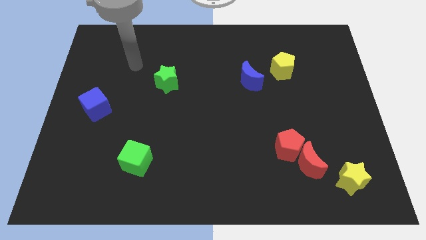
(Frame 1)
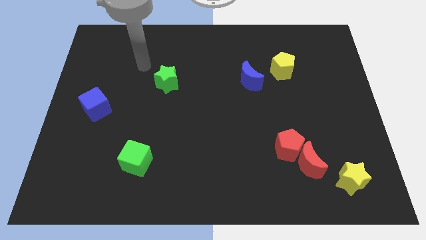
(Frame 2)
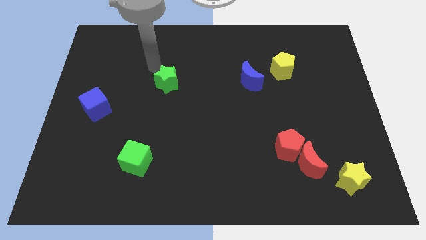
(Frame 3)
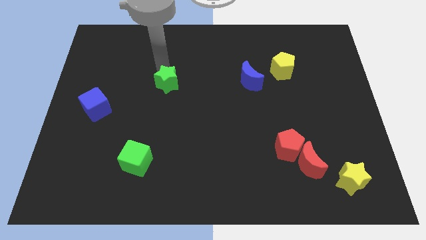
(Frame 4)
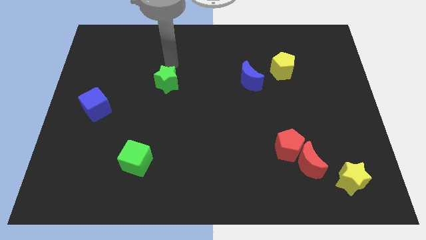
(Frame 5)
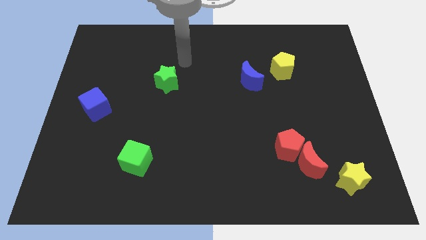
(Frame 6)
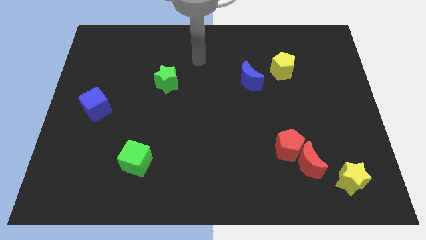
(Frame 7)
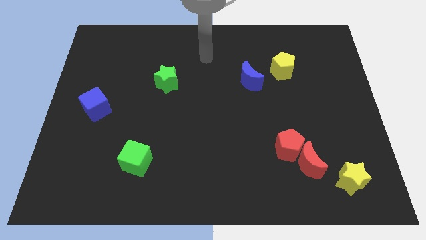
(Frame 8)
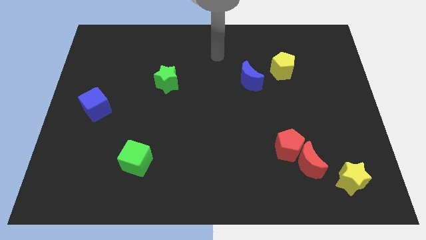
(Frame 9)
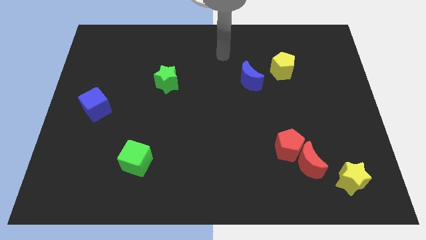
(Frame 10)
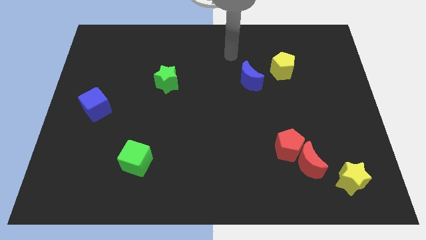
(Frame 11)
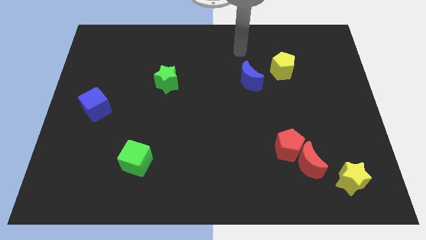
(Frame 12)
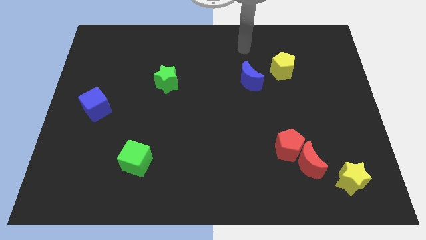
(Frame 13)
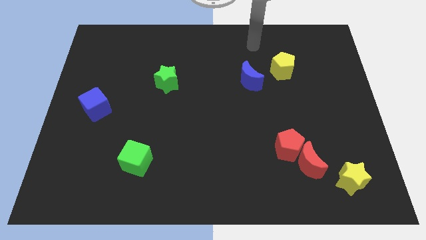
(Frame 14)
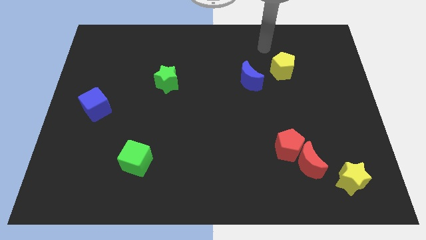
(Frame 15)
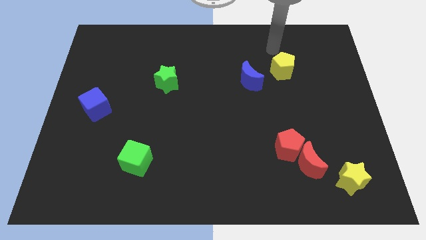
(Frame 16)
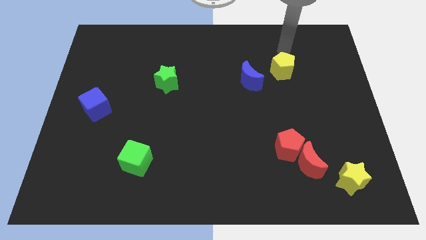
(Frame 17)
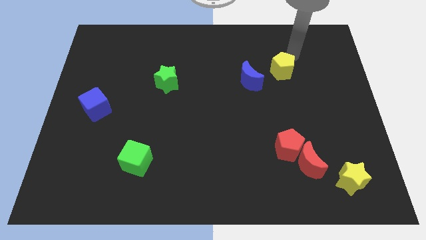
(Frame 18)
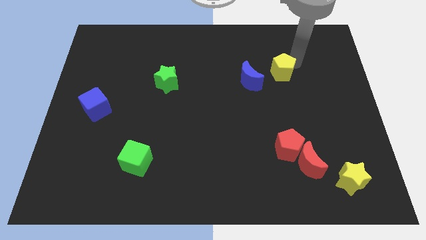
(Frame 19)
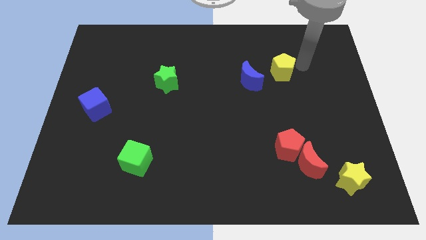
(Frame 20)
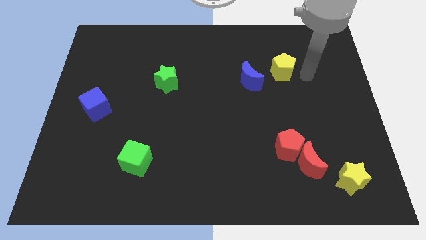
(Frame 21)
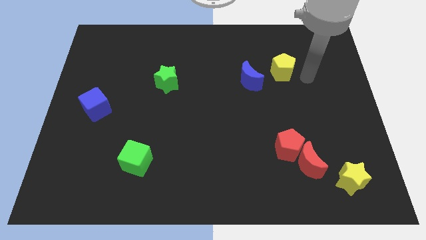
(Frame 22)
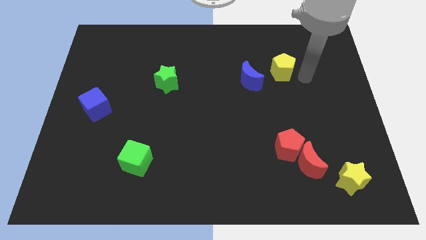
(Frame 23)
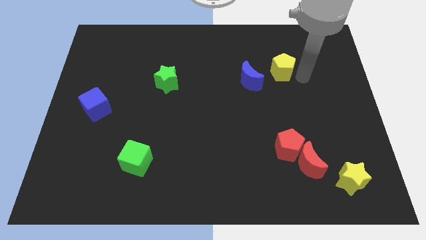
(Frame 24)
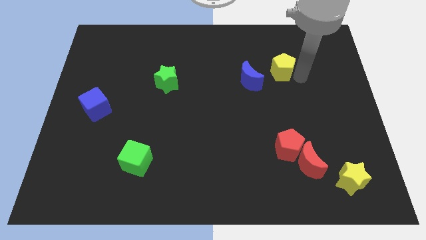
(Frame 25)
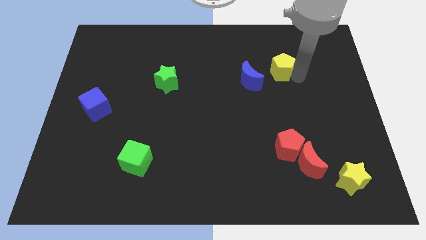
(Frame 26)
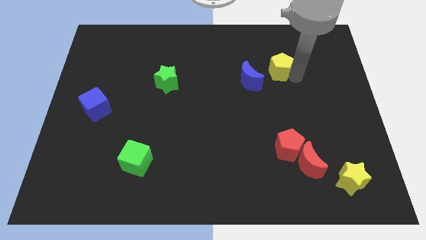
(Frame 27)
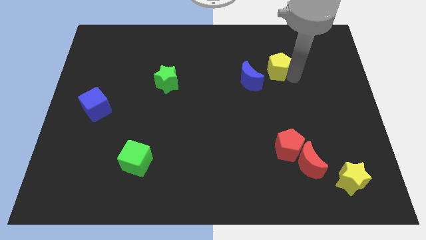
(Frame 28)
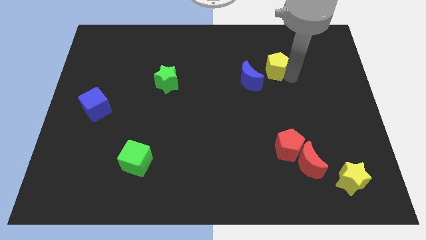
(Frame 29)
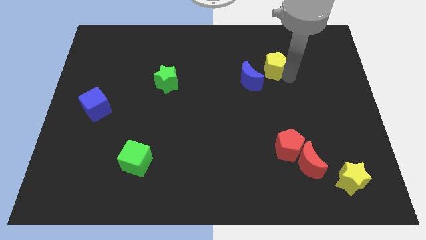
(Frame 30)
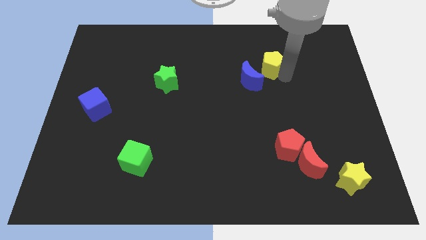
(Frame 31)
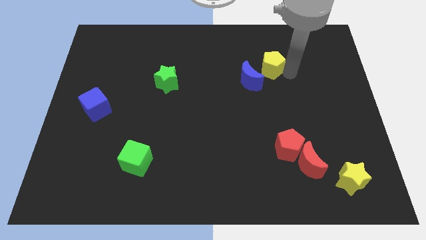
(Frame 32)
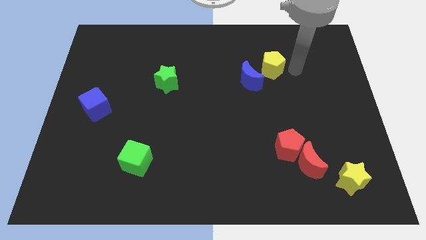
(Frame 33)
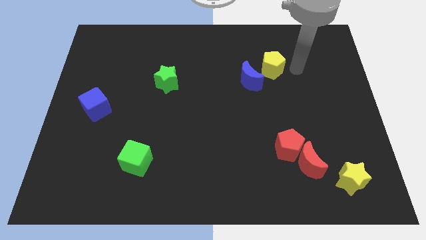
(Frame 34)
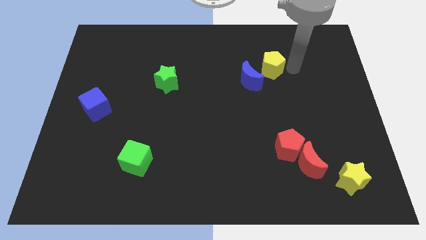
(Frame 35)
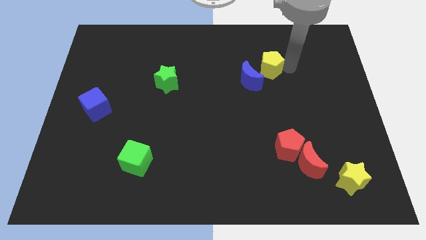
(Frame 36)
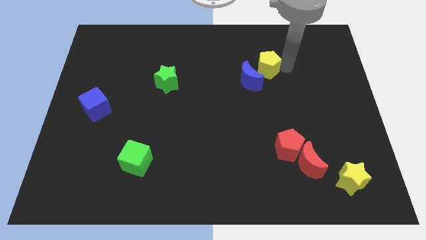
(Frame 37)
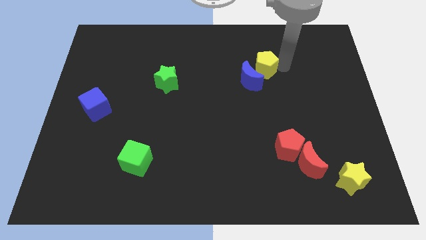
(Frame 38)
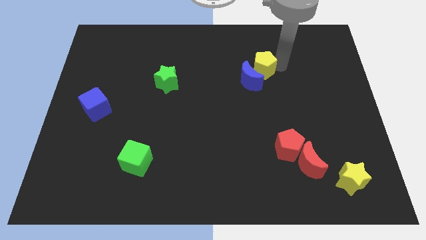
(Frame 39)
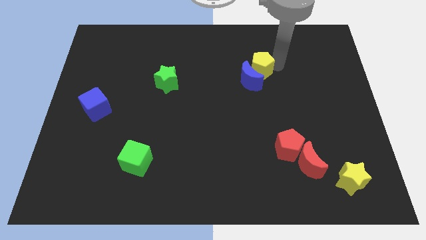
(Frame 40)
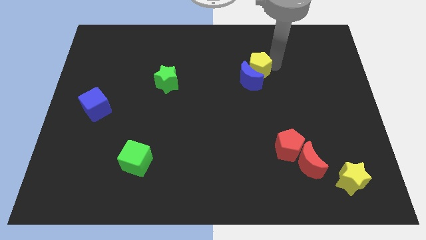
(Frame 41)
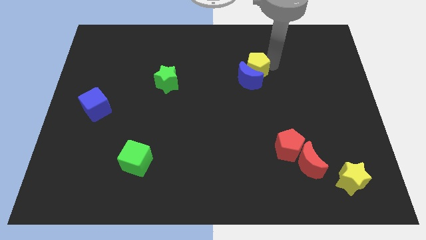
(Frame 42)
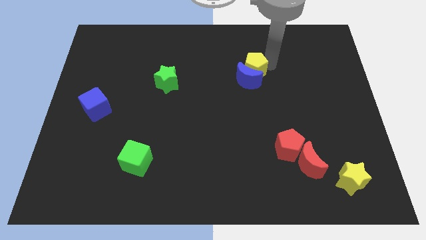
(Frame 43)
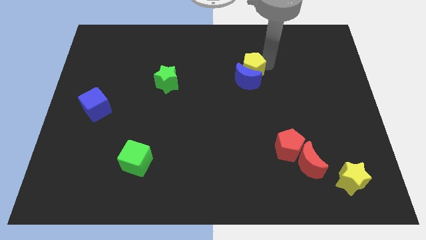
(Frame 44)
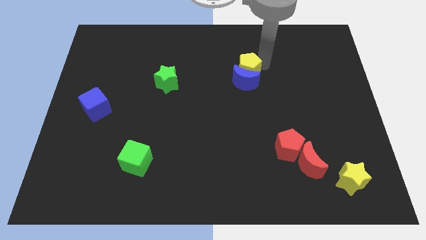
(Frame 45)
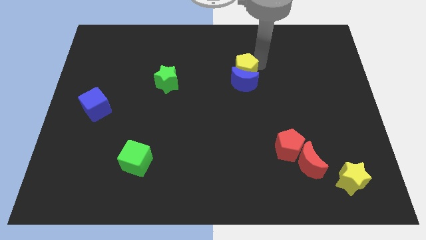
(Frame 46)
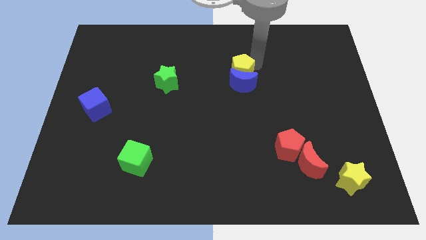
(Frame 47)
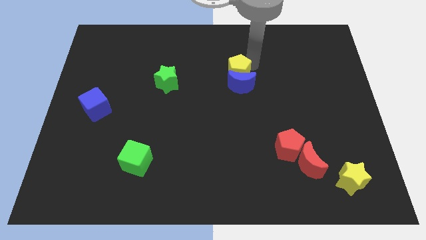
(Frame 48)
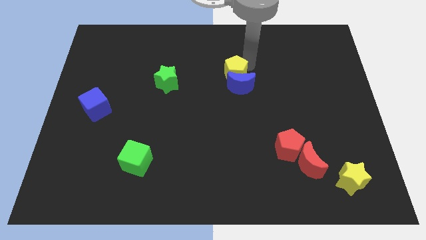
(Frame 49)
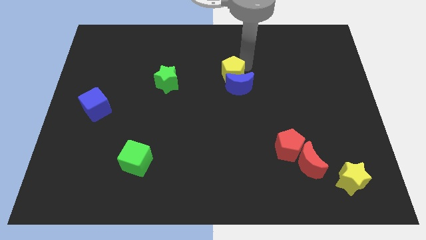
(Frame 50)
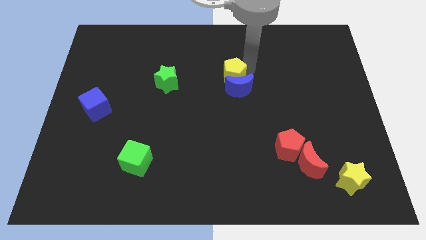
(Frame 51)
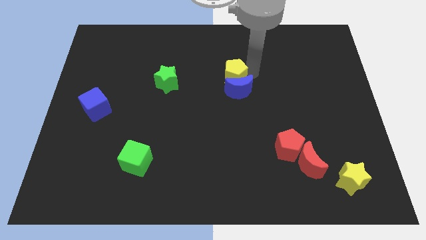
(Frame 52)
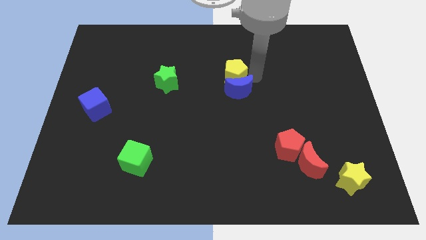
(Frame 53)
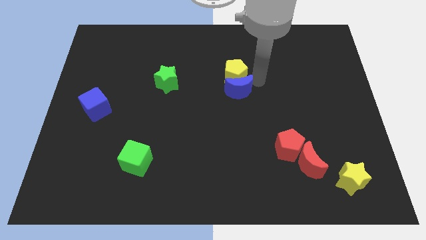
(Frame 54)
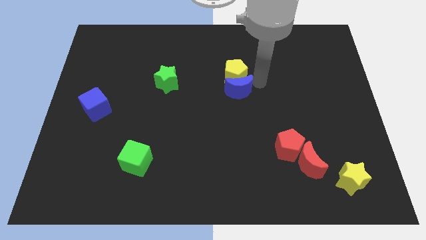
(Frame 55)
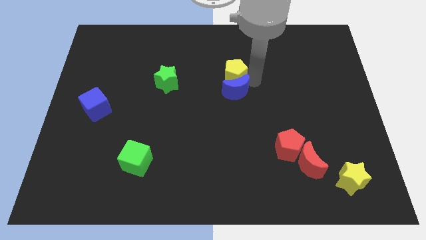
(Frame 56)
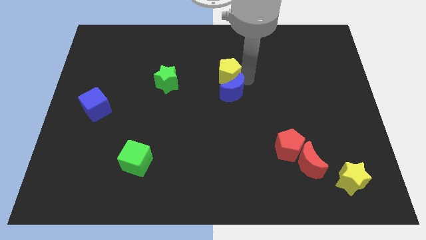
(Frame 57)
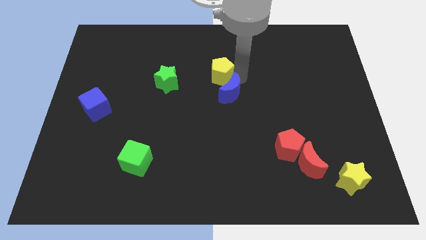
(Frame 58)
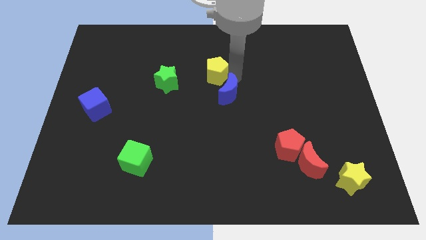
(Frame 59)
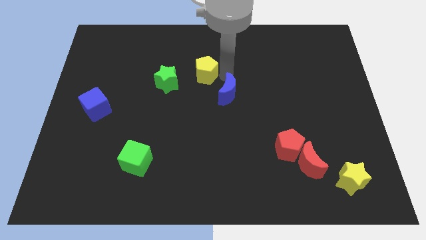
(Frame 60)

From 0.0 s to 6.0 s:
move the yellow pentagon left

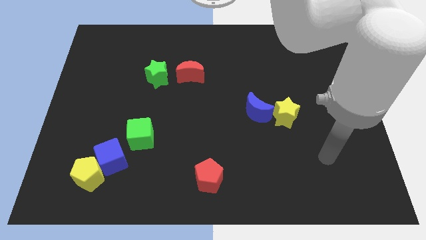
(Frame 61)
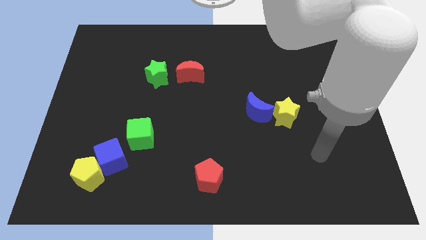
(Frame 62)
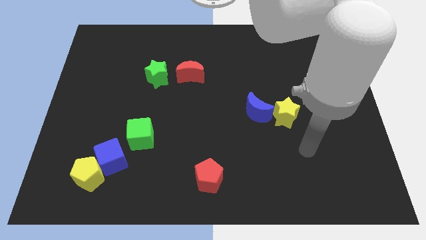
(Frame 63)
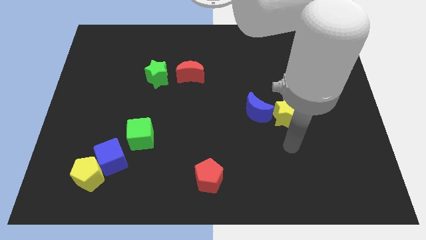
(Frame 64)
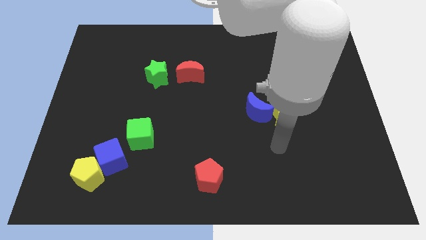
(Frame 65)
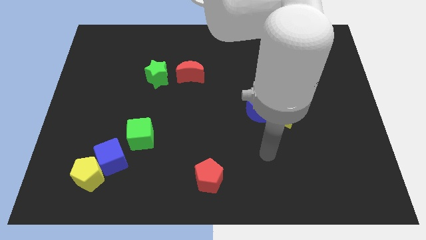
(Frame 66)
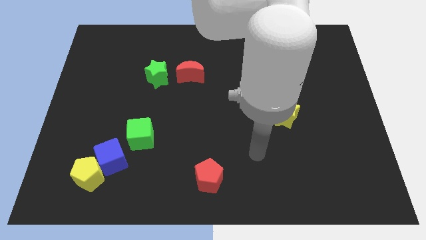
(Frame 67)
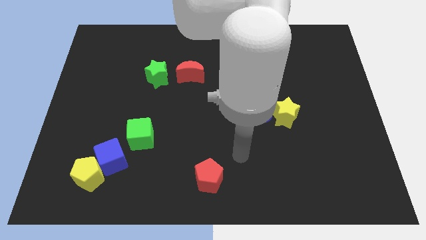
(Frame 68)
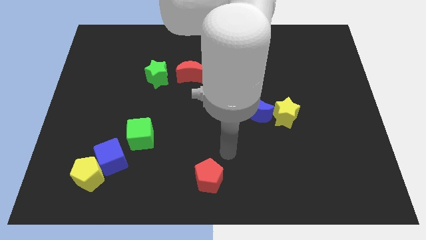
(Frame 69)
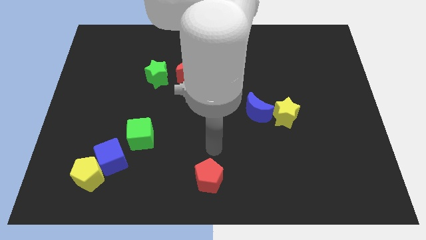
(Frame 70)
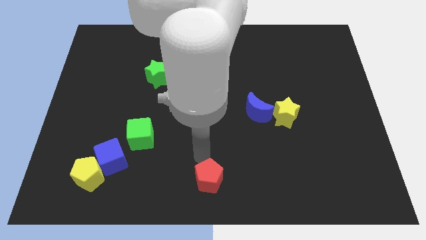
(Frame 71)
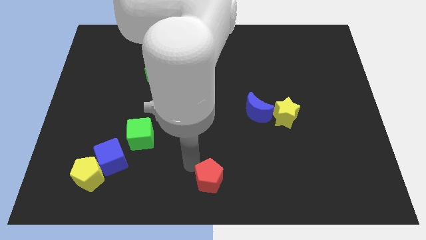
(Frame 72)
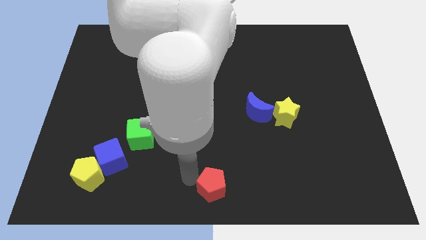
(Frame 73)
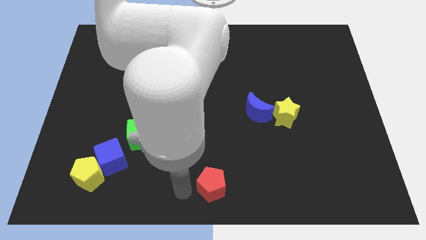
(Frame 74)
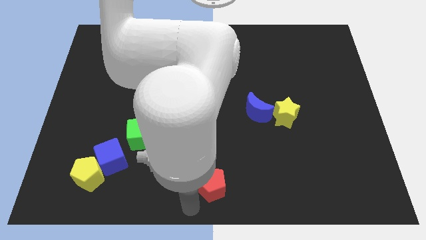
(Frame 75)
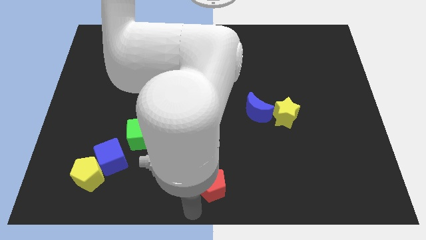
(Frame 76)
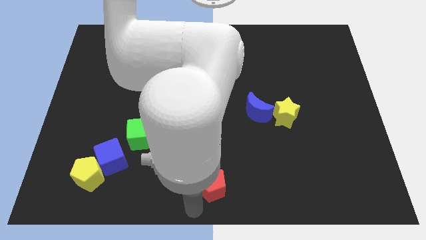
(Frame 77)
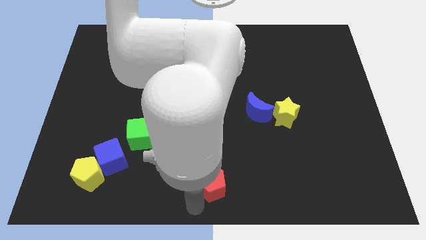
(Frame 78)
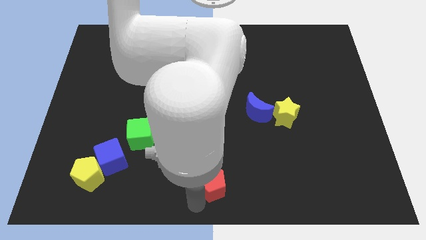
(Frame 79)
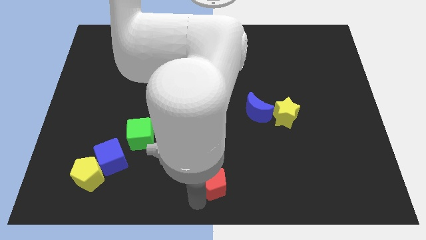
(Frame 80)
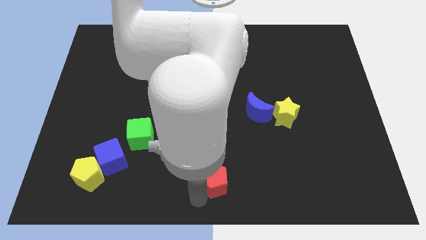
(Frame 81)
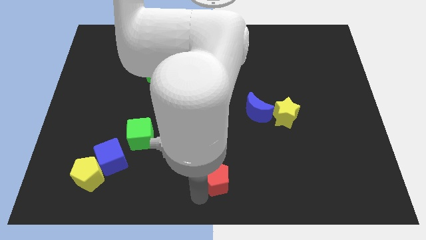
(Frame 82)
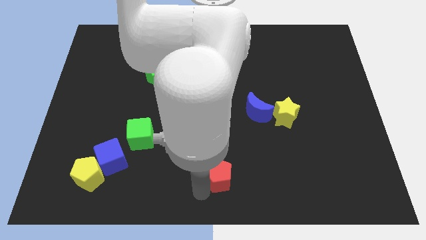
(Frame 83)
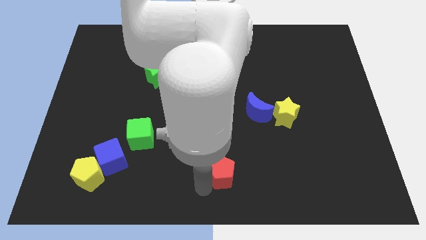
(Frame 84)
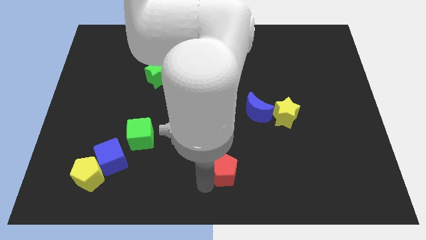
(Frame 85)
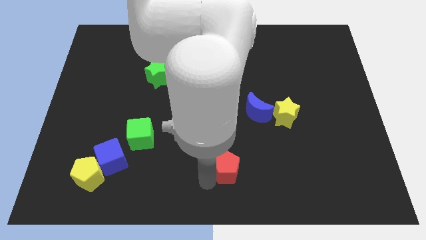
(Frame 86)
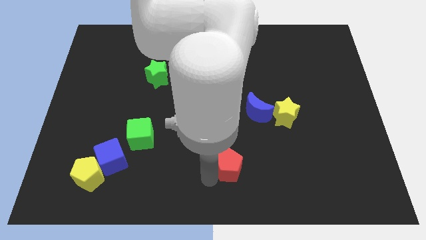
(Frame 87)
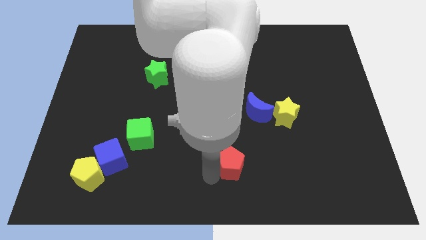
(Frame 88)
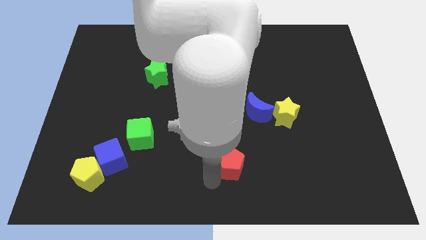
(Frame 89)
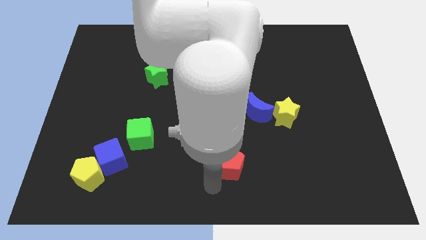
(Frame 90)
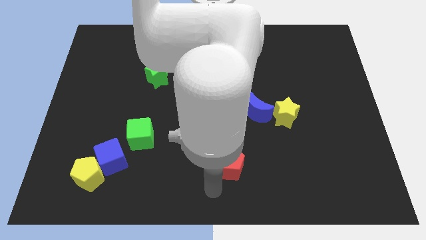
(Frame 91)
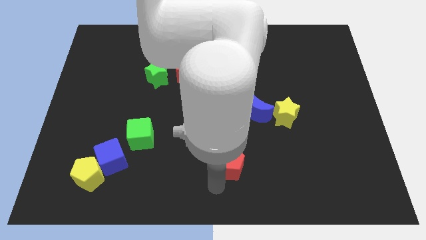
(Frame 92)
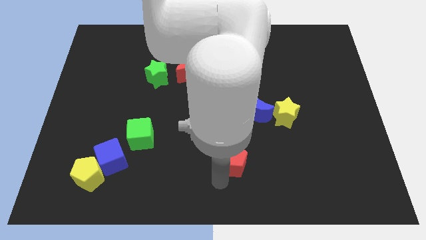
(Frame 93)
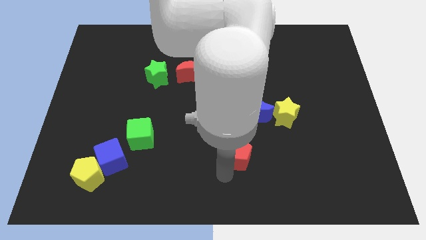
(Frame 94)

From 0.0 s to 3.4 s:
push the red pentagon a little up and to the right diagonally
